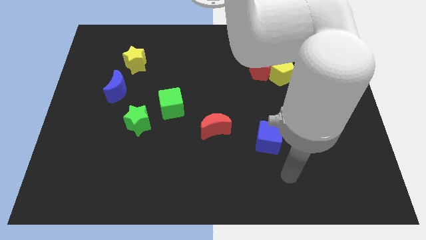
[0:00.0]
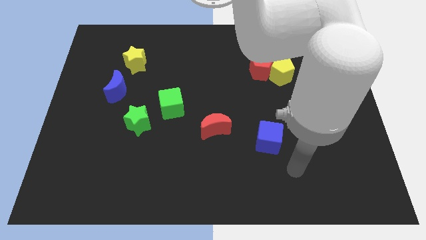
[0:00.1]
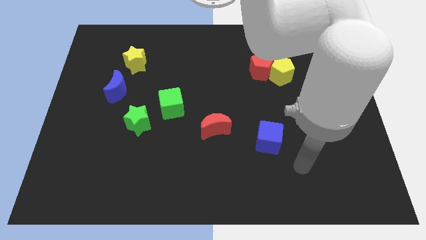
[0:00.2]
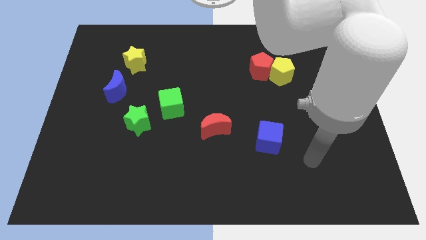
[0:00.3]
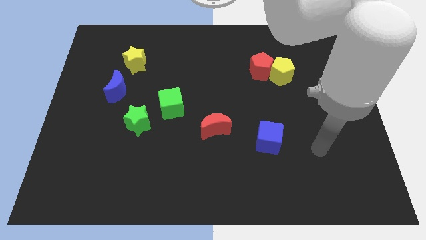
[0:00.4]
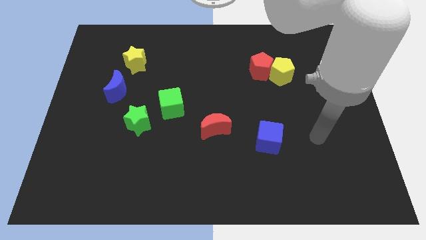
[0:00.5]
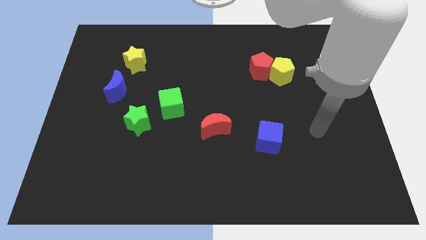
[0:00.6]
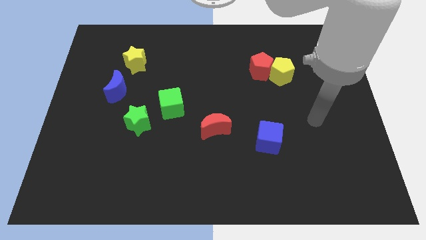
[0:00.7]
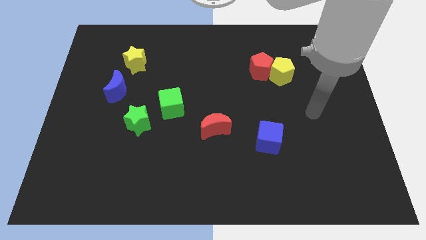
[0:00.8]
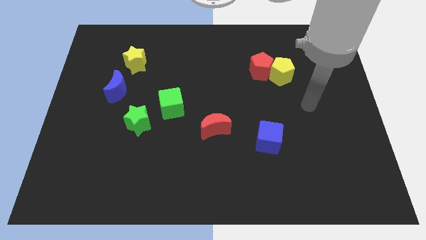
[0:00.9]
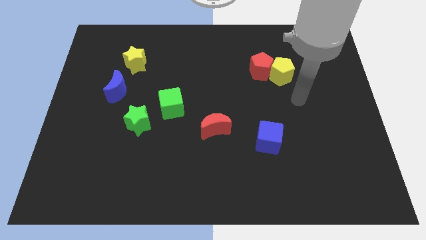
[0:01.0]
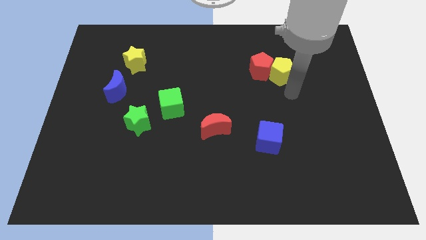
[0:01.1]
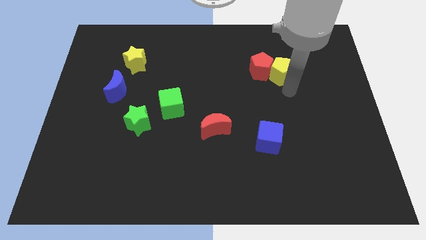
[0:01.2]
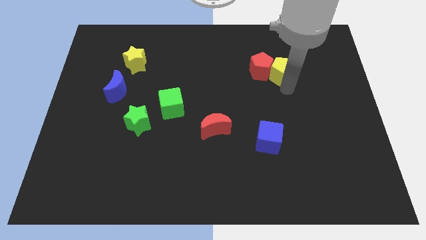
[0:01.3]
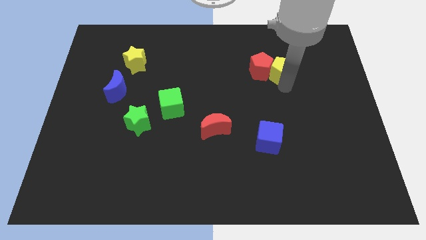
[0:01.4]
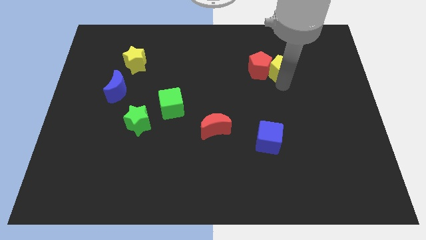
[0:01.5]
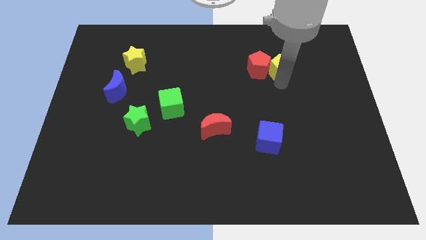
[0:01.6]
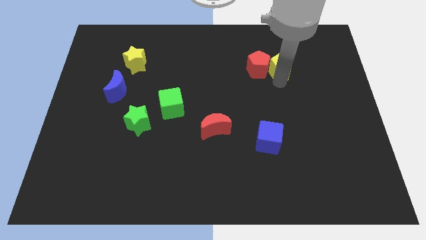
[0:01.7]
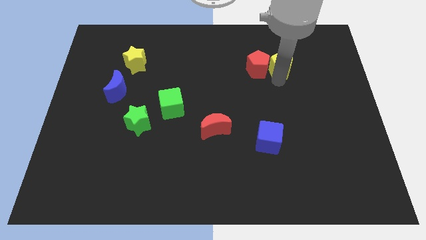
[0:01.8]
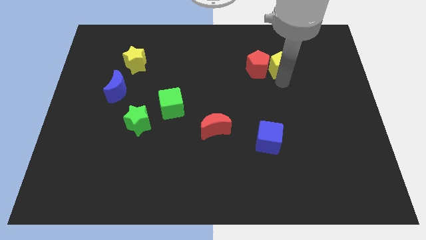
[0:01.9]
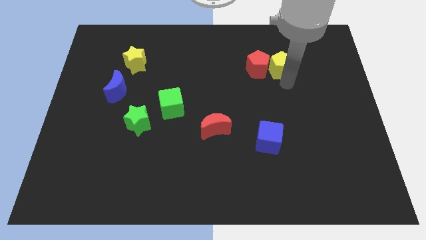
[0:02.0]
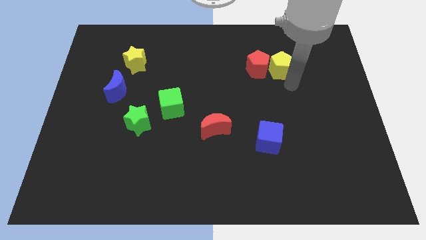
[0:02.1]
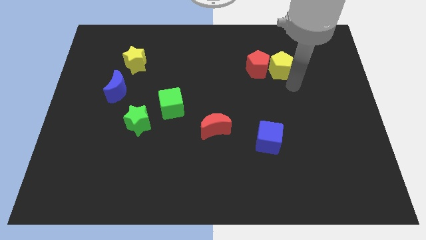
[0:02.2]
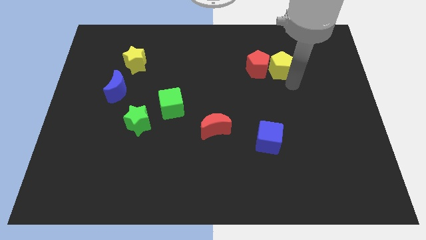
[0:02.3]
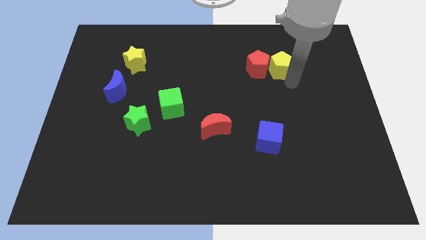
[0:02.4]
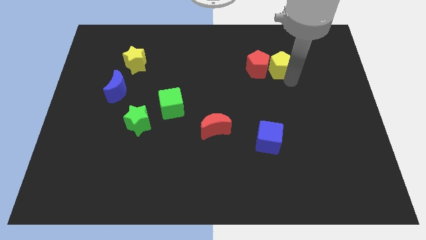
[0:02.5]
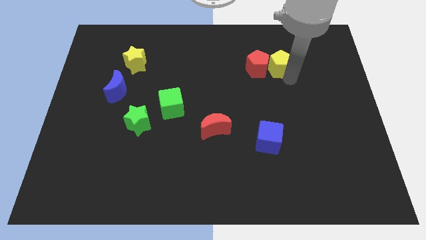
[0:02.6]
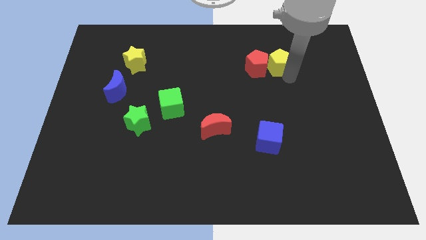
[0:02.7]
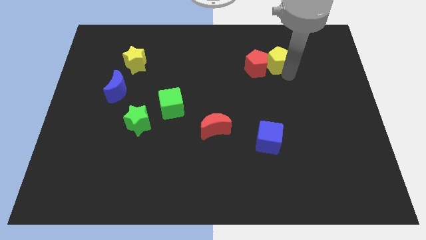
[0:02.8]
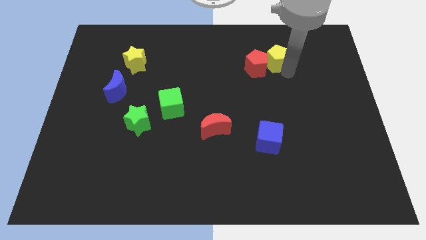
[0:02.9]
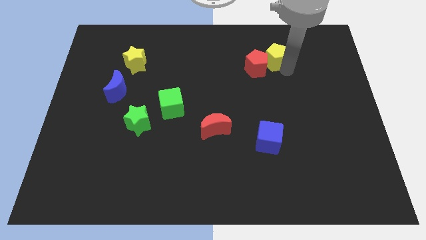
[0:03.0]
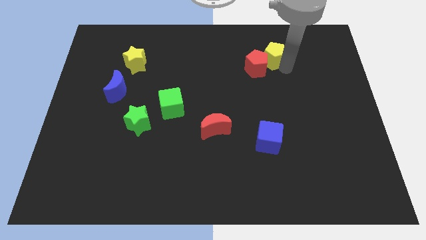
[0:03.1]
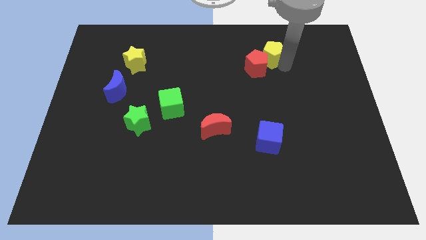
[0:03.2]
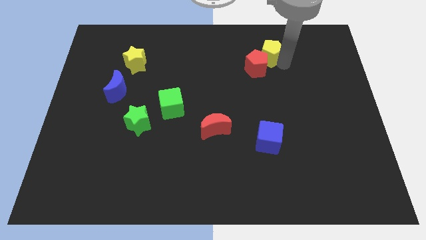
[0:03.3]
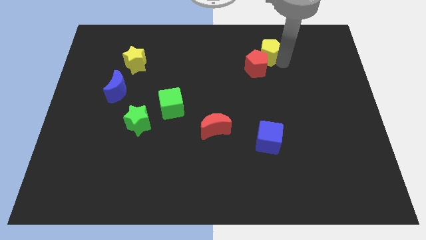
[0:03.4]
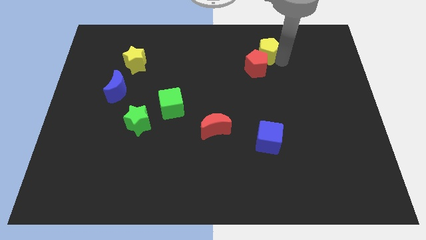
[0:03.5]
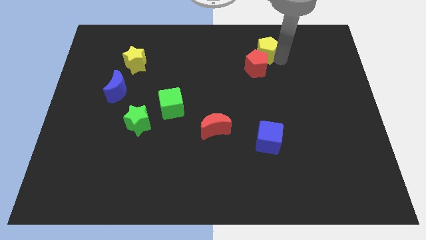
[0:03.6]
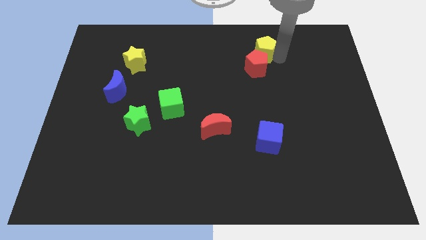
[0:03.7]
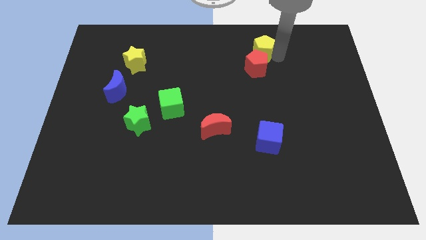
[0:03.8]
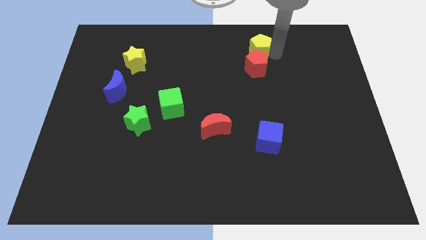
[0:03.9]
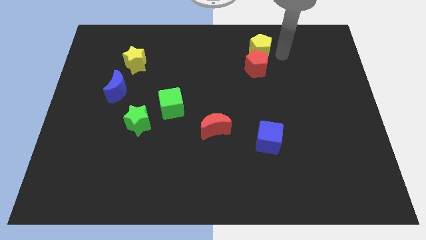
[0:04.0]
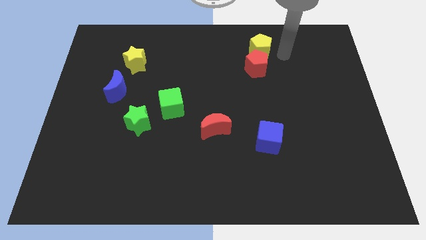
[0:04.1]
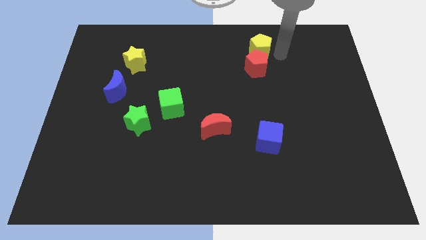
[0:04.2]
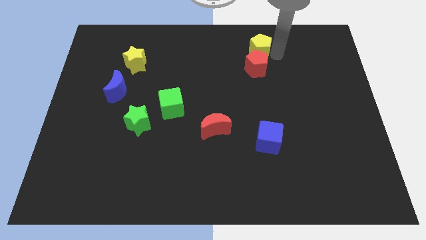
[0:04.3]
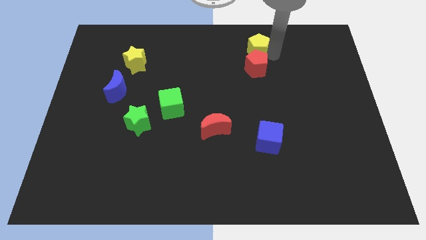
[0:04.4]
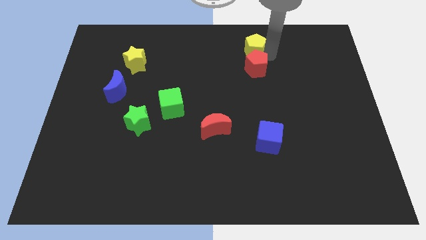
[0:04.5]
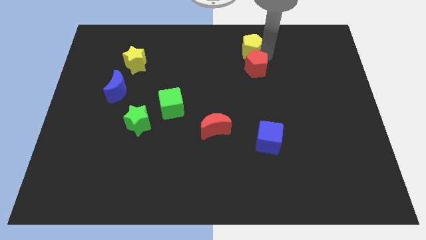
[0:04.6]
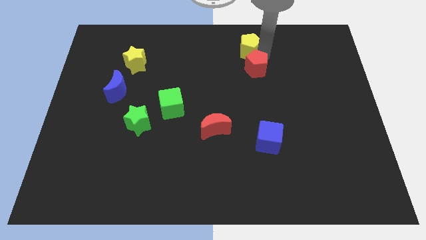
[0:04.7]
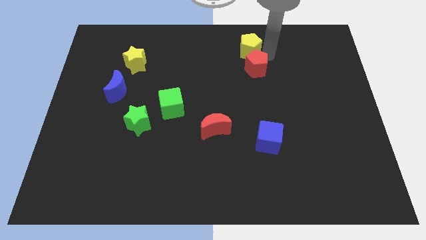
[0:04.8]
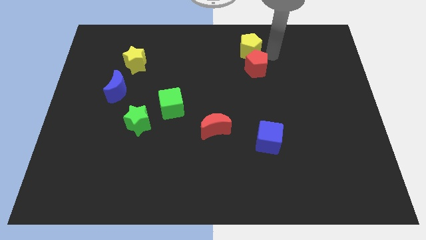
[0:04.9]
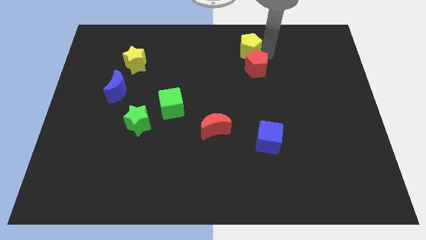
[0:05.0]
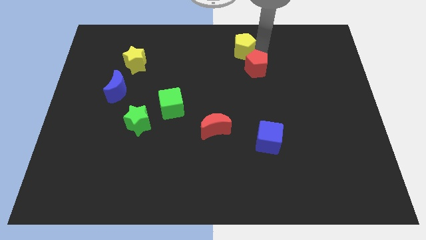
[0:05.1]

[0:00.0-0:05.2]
put the yellow pentagon to the towards your base

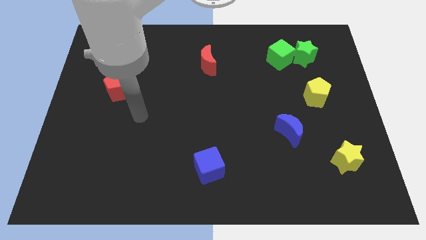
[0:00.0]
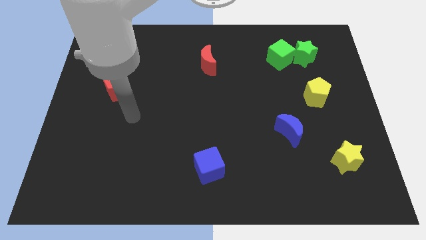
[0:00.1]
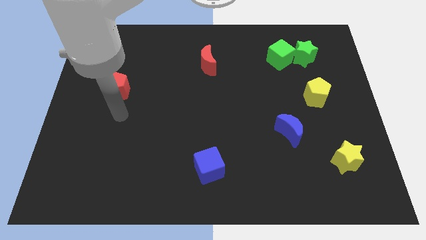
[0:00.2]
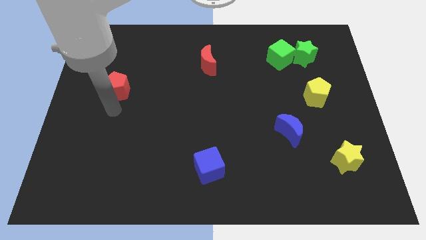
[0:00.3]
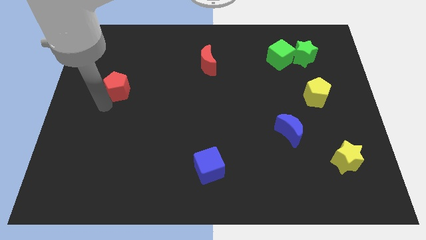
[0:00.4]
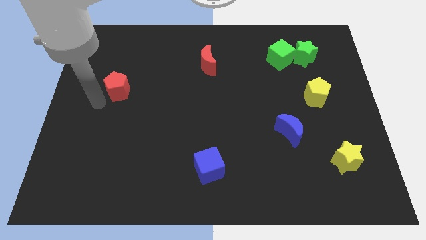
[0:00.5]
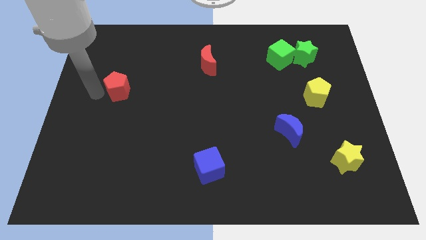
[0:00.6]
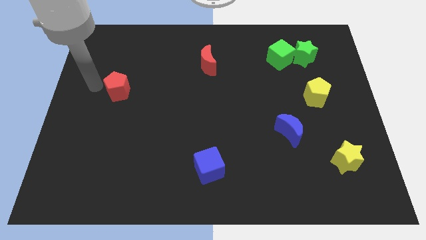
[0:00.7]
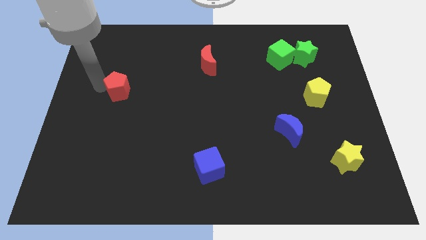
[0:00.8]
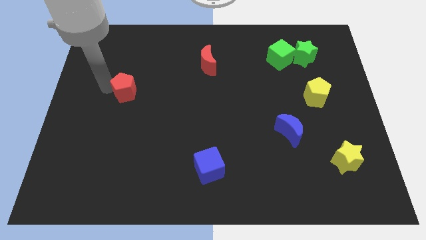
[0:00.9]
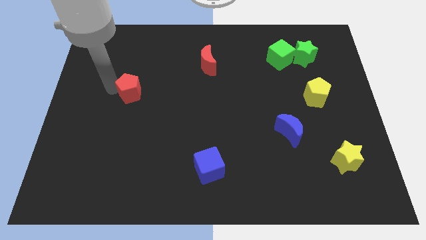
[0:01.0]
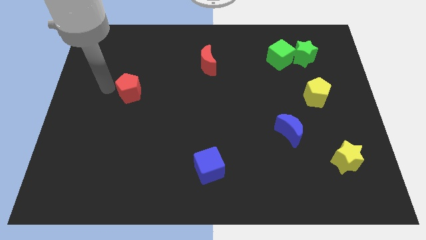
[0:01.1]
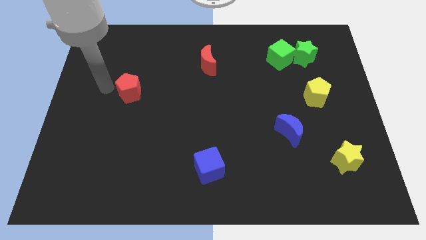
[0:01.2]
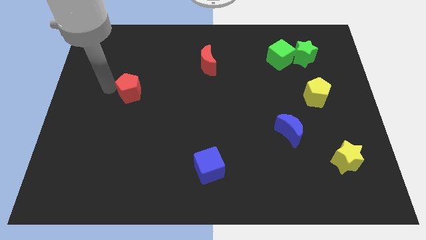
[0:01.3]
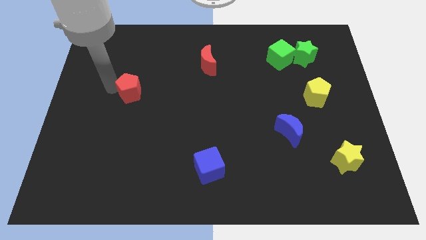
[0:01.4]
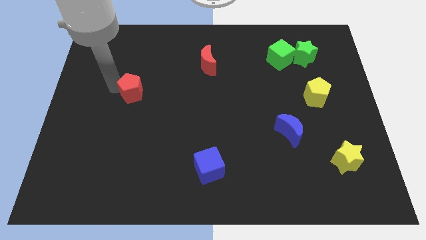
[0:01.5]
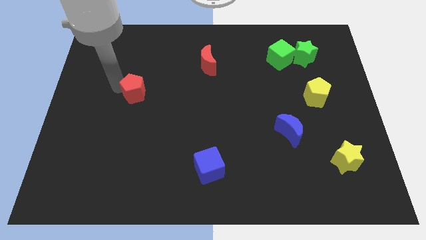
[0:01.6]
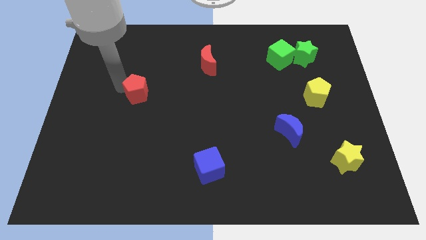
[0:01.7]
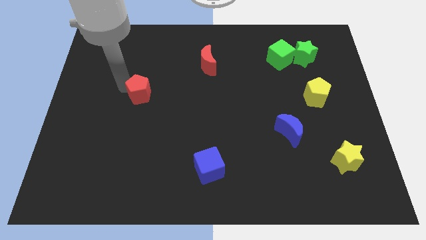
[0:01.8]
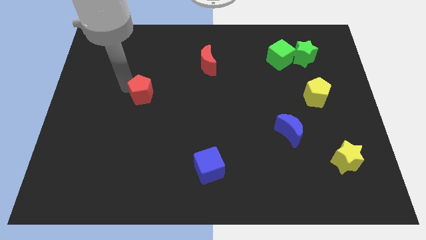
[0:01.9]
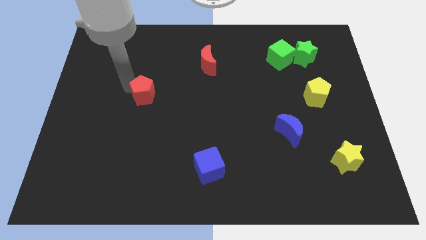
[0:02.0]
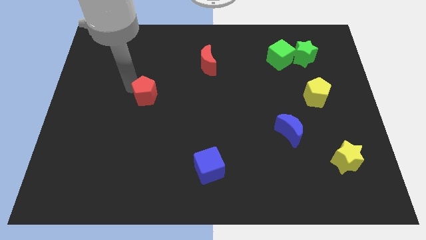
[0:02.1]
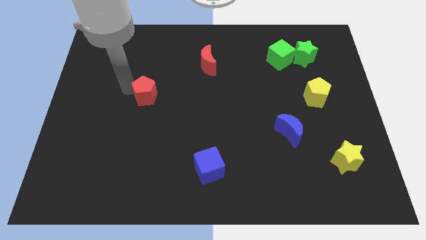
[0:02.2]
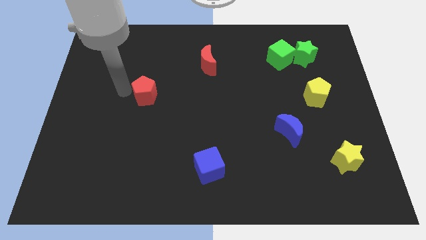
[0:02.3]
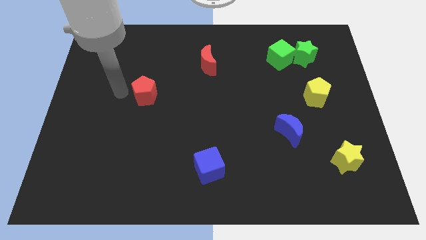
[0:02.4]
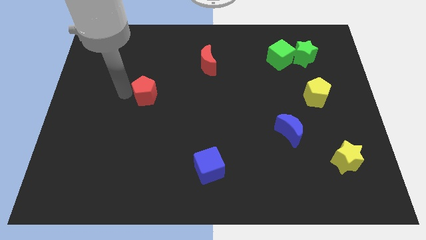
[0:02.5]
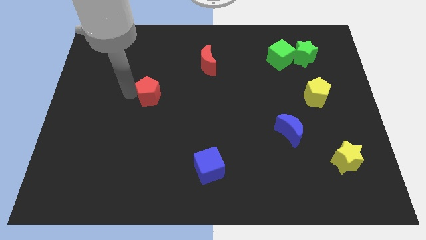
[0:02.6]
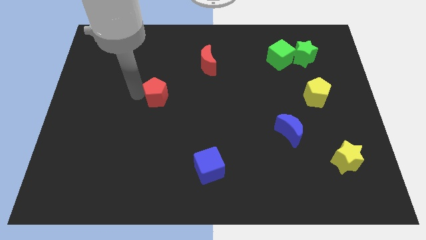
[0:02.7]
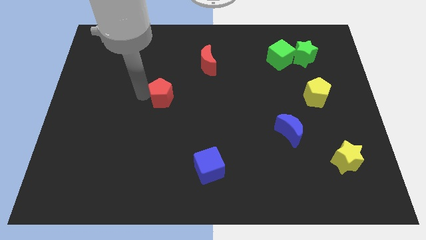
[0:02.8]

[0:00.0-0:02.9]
move the red pentagon to the middle
